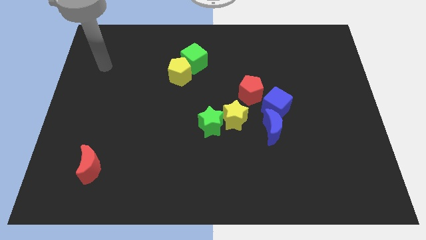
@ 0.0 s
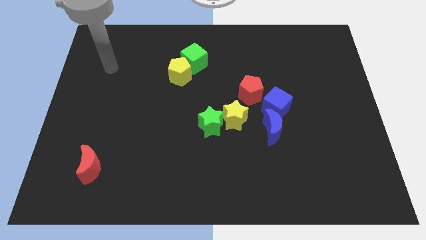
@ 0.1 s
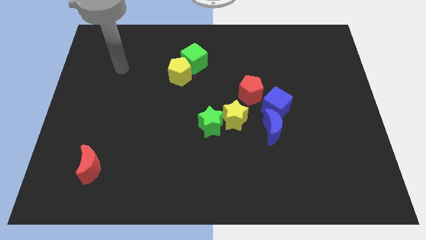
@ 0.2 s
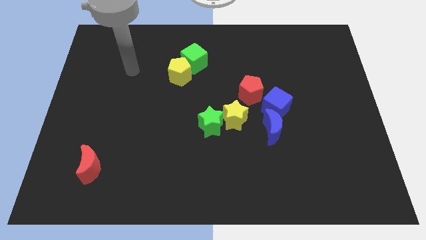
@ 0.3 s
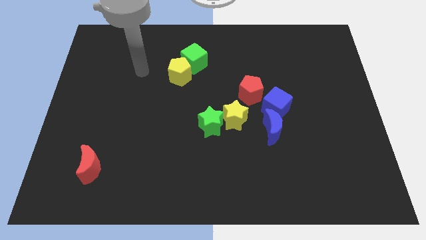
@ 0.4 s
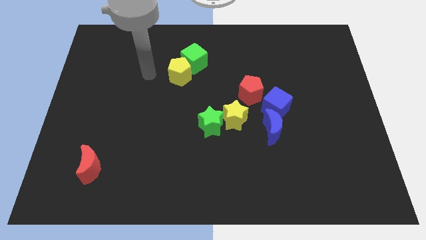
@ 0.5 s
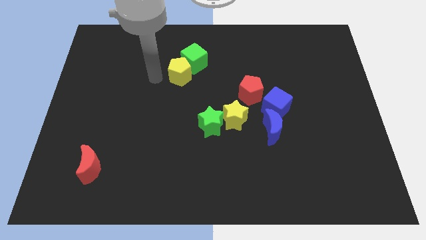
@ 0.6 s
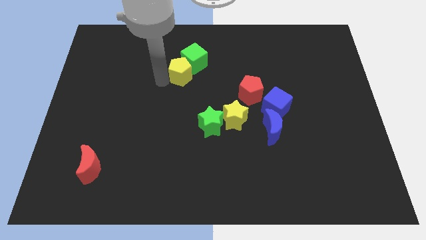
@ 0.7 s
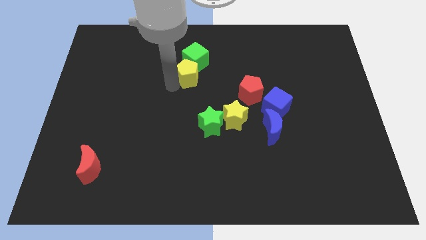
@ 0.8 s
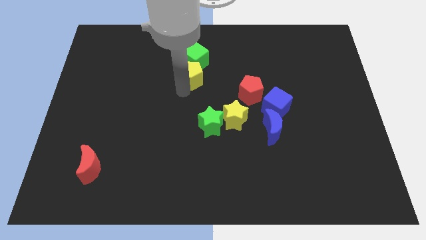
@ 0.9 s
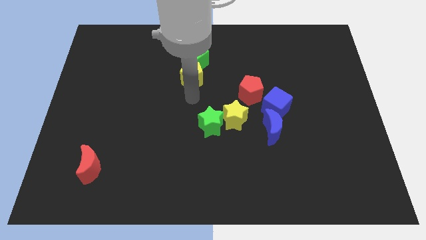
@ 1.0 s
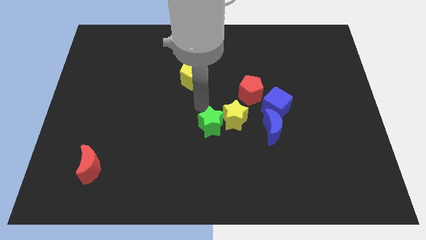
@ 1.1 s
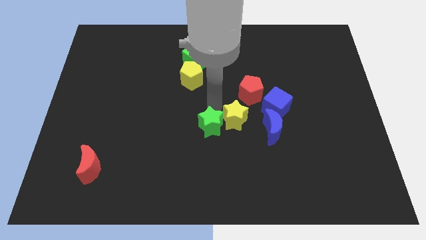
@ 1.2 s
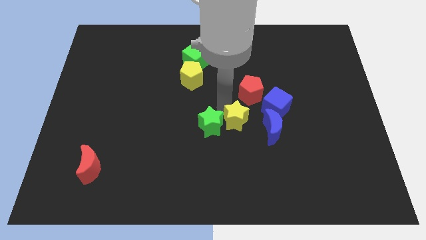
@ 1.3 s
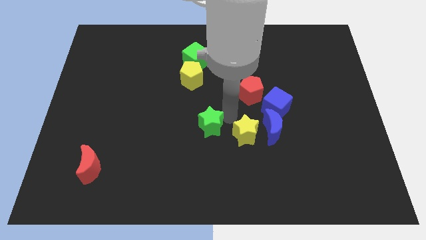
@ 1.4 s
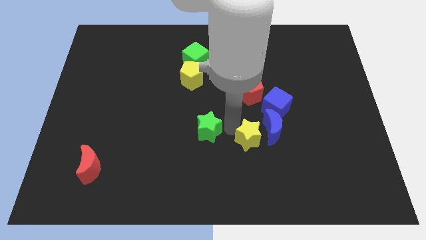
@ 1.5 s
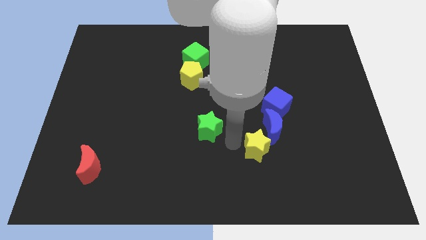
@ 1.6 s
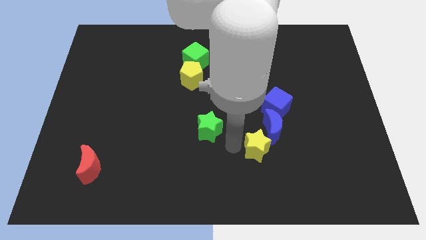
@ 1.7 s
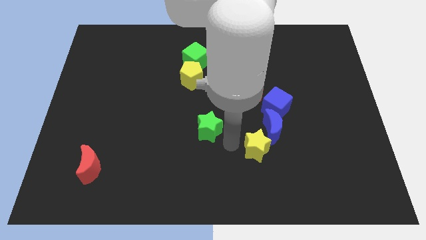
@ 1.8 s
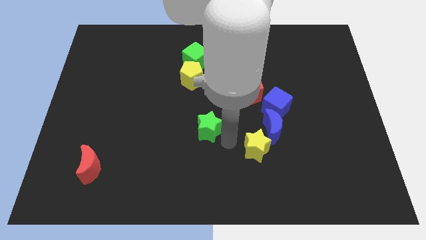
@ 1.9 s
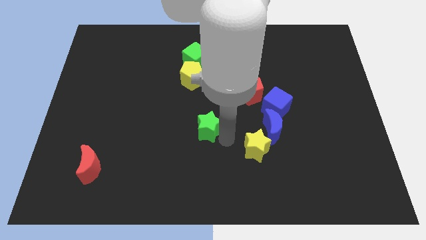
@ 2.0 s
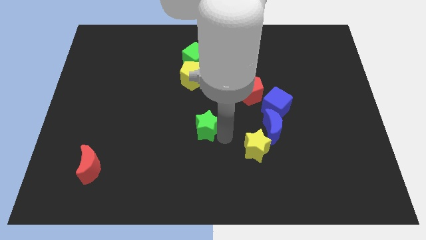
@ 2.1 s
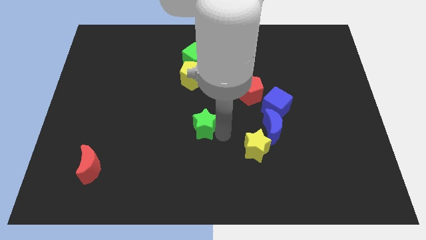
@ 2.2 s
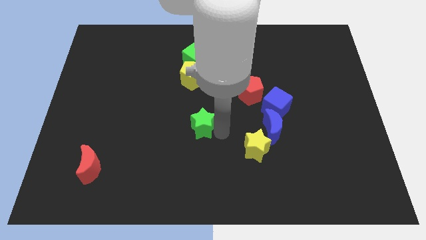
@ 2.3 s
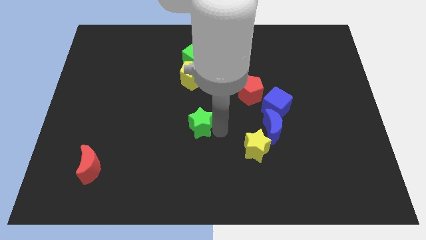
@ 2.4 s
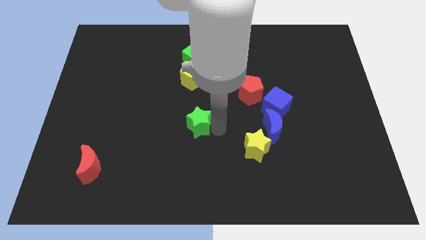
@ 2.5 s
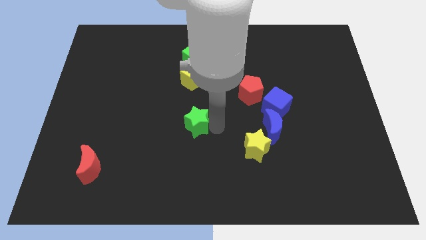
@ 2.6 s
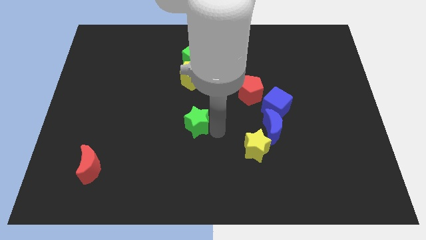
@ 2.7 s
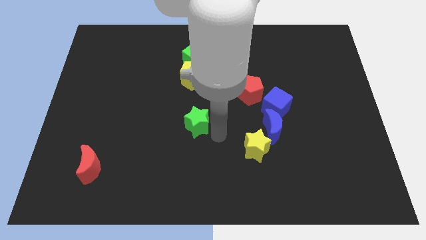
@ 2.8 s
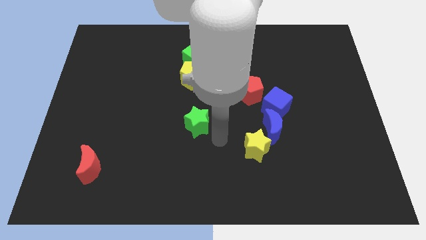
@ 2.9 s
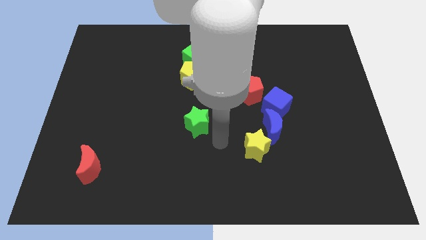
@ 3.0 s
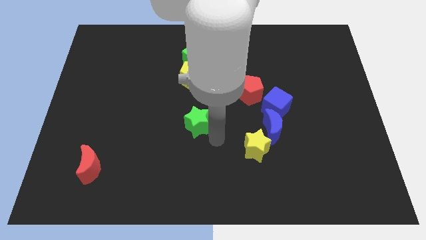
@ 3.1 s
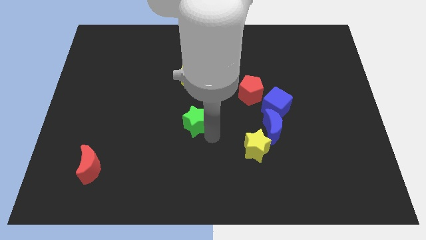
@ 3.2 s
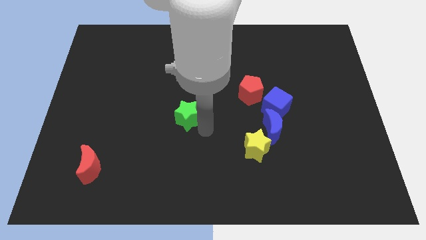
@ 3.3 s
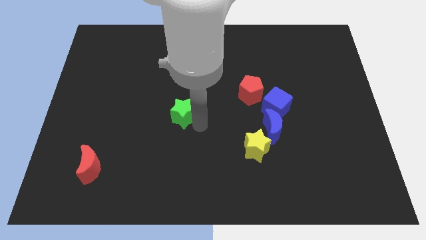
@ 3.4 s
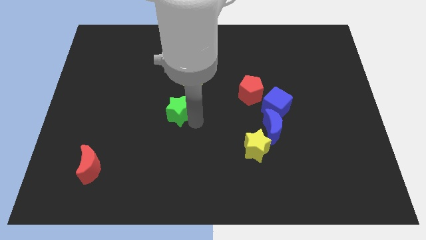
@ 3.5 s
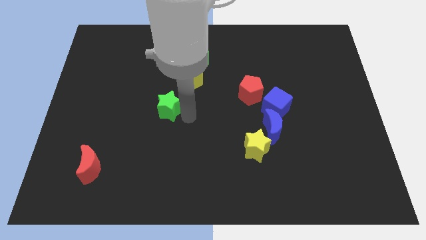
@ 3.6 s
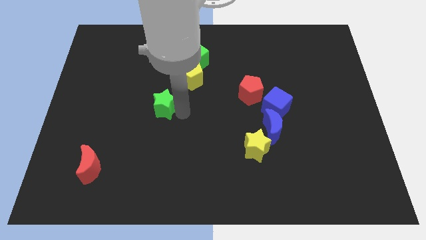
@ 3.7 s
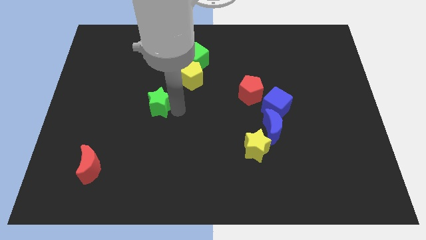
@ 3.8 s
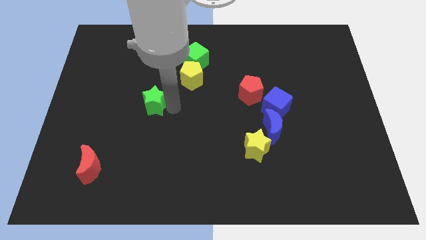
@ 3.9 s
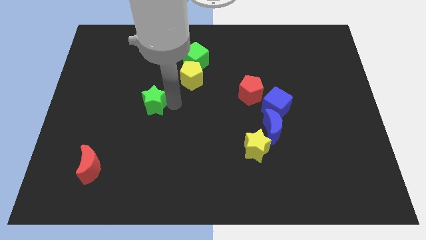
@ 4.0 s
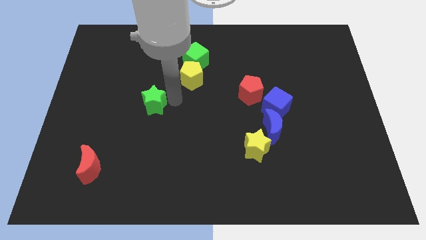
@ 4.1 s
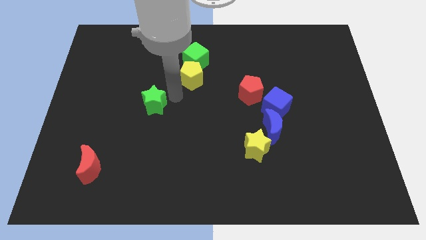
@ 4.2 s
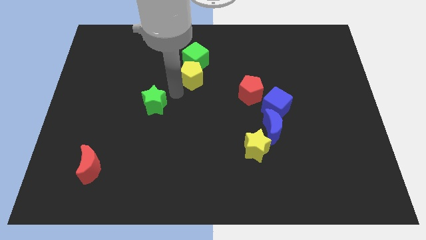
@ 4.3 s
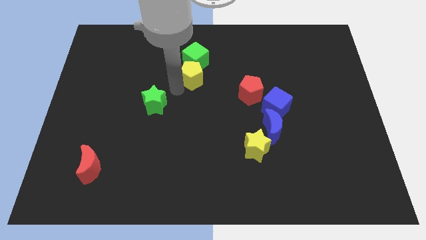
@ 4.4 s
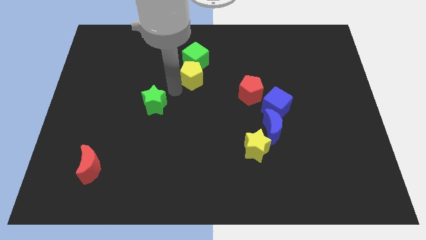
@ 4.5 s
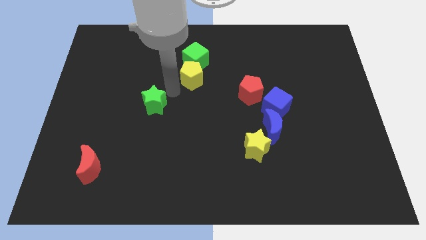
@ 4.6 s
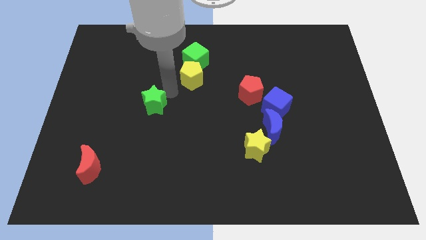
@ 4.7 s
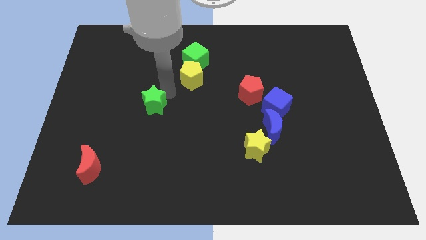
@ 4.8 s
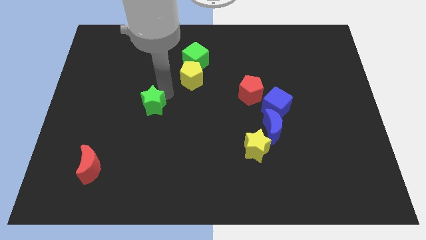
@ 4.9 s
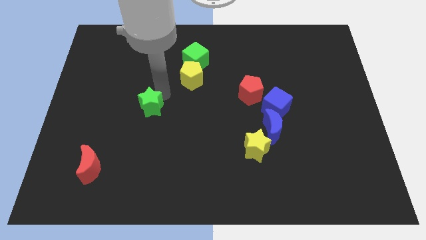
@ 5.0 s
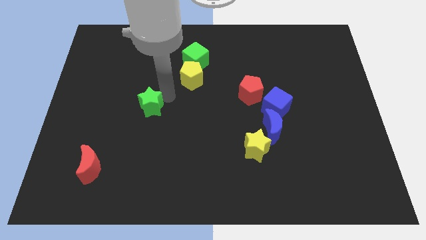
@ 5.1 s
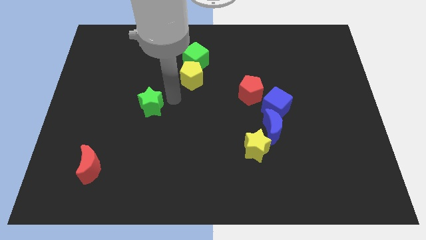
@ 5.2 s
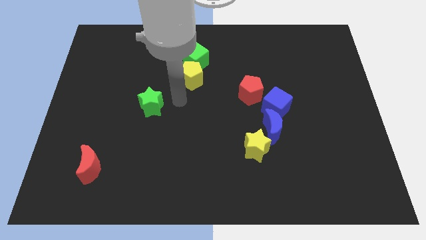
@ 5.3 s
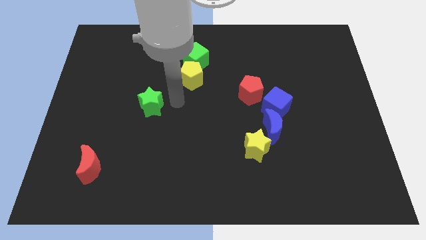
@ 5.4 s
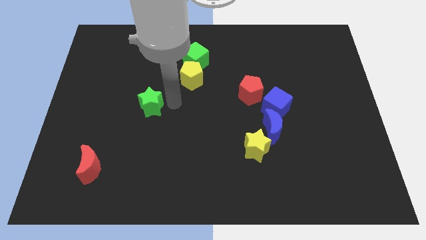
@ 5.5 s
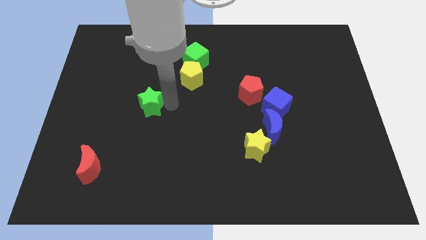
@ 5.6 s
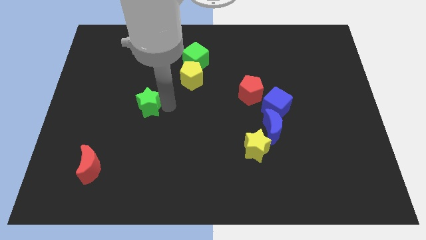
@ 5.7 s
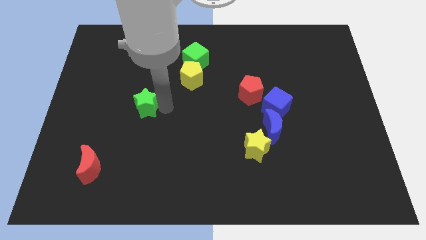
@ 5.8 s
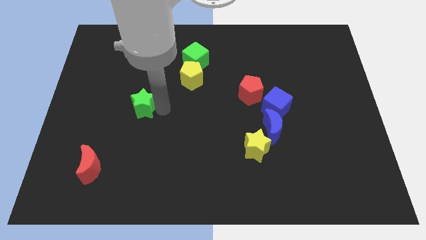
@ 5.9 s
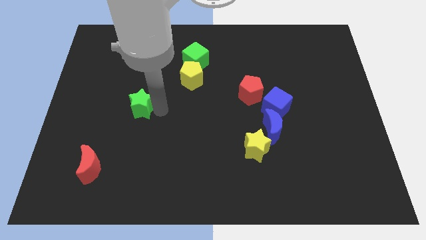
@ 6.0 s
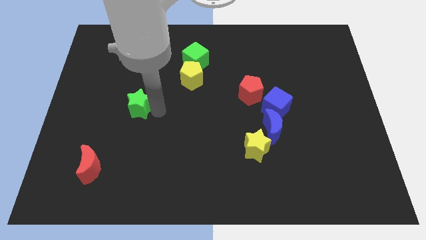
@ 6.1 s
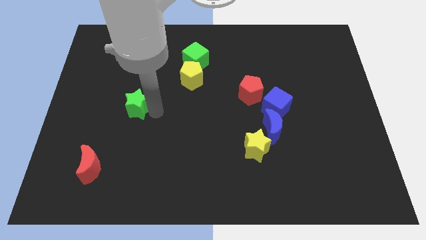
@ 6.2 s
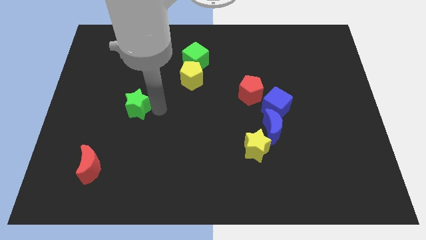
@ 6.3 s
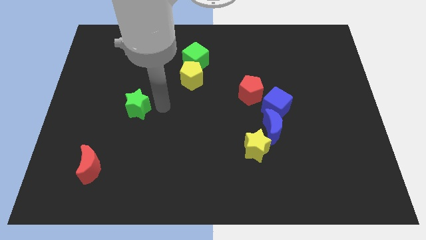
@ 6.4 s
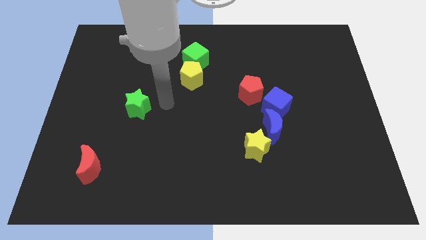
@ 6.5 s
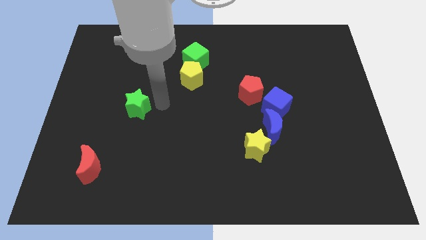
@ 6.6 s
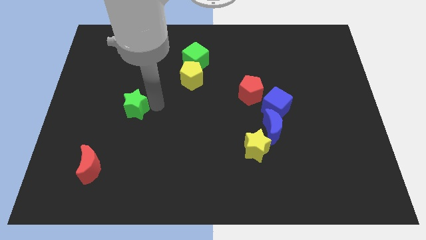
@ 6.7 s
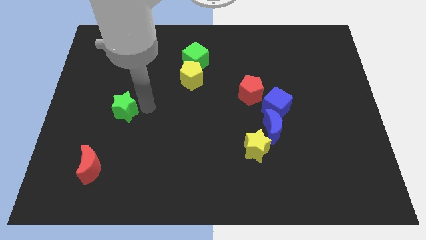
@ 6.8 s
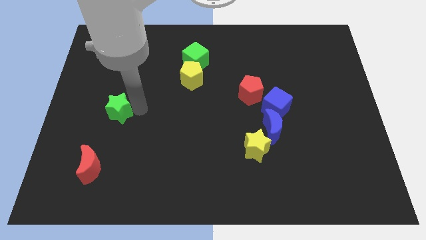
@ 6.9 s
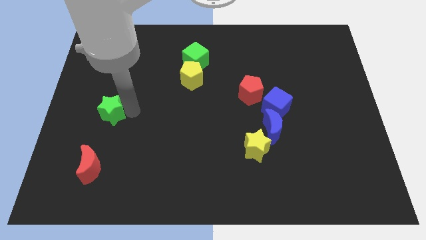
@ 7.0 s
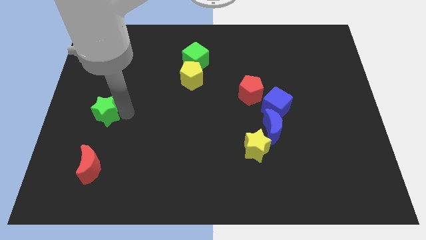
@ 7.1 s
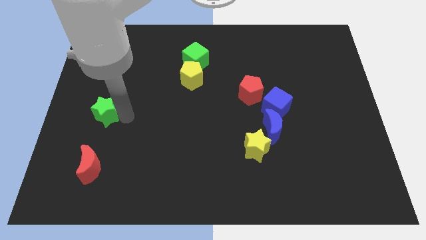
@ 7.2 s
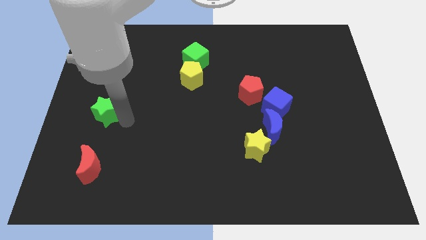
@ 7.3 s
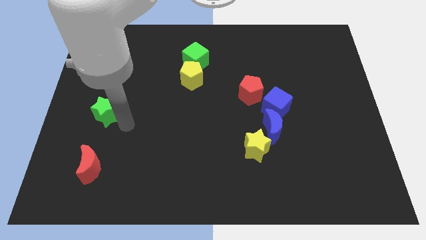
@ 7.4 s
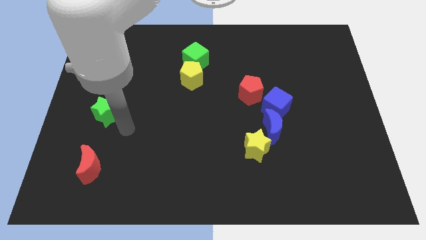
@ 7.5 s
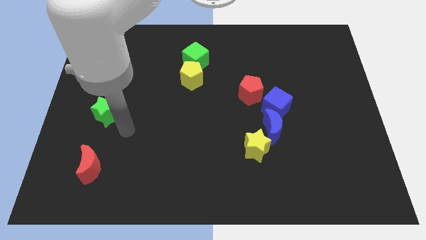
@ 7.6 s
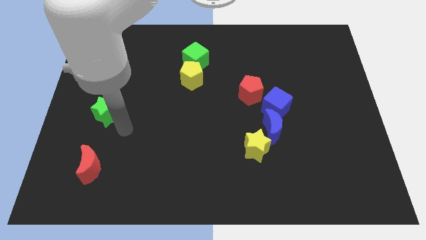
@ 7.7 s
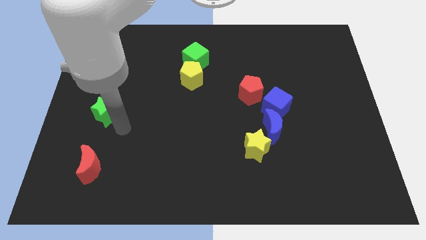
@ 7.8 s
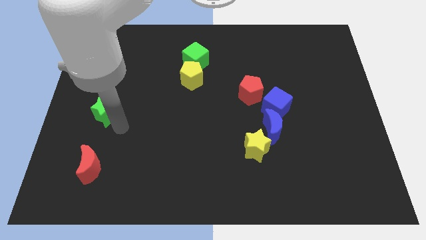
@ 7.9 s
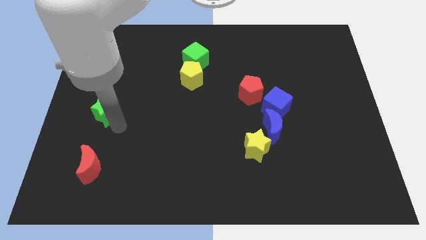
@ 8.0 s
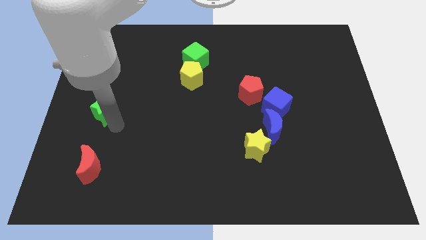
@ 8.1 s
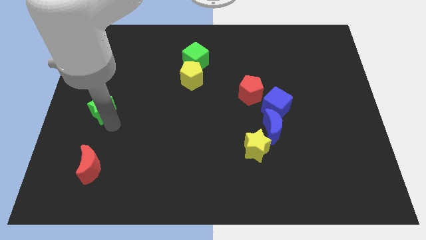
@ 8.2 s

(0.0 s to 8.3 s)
slide the green star to the left side
